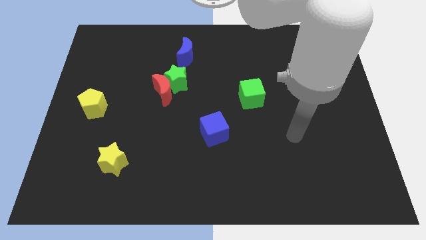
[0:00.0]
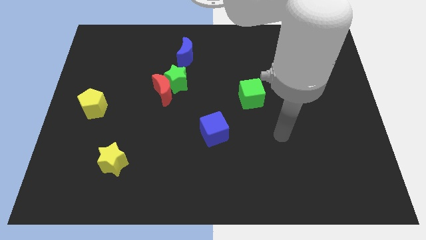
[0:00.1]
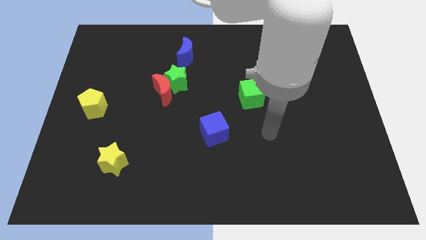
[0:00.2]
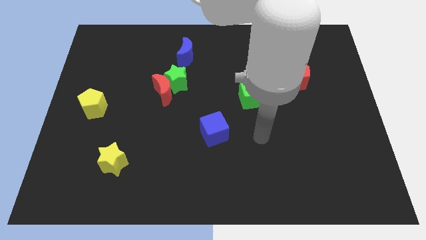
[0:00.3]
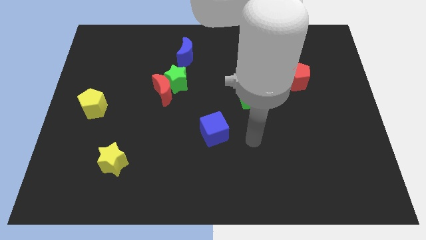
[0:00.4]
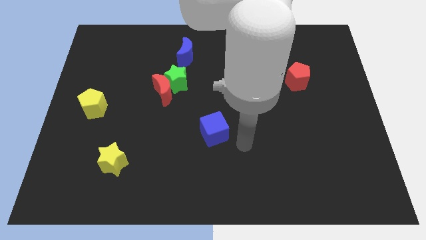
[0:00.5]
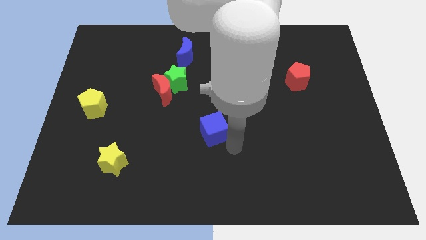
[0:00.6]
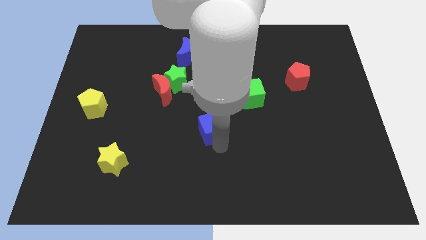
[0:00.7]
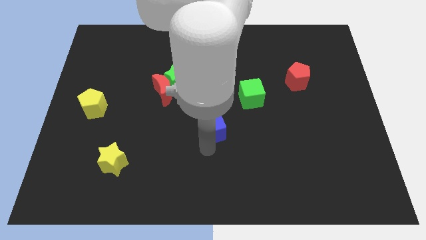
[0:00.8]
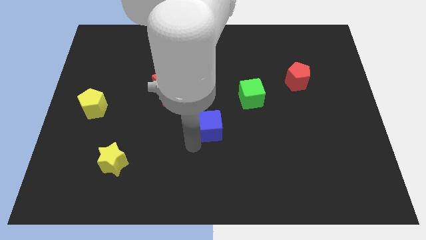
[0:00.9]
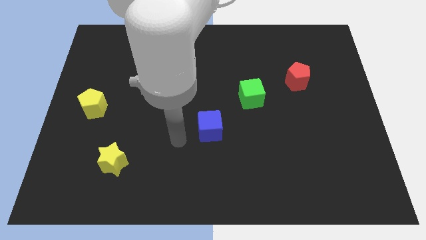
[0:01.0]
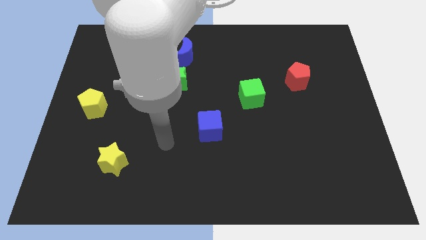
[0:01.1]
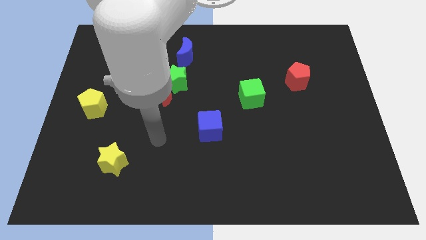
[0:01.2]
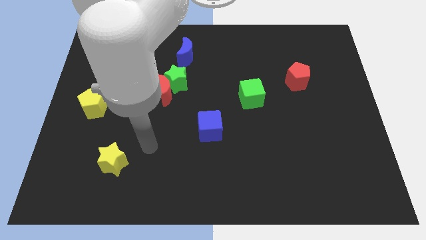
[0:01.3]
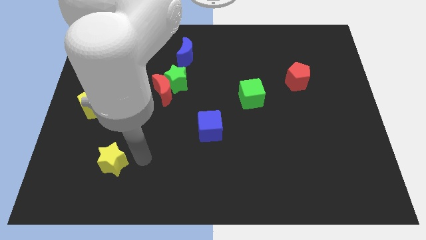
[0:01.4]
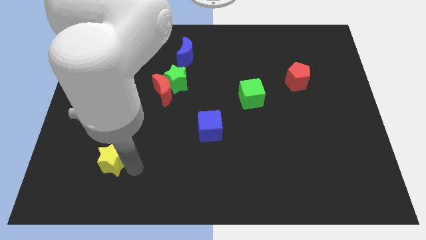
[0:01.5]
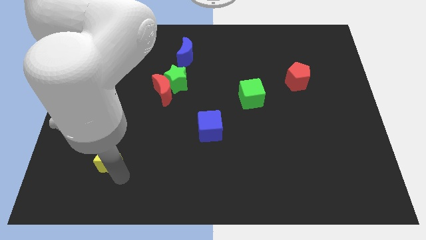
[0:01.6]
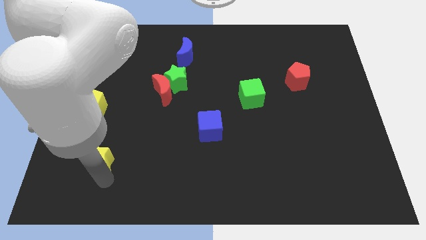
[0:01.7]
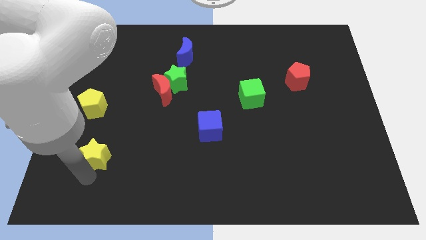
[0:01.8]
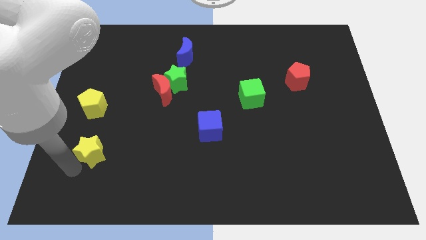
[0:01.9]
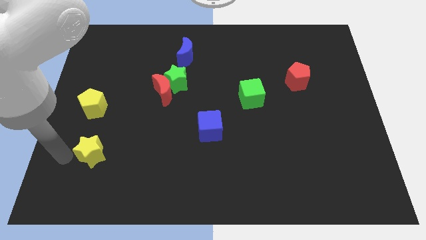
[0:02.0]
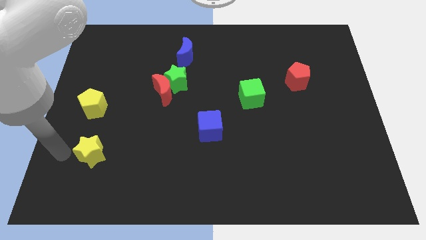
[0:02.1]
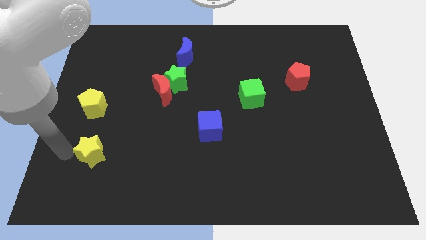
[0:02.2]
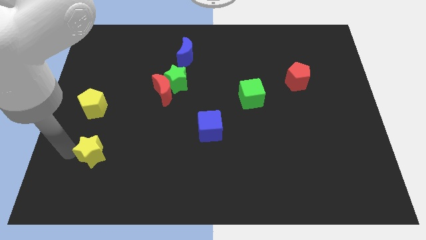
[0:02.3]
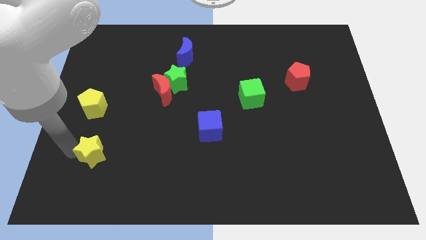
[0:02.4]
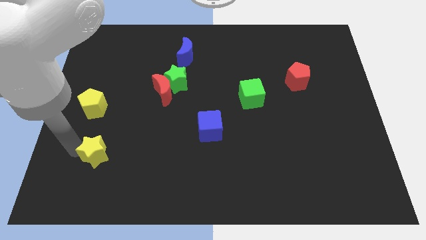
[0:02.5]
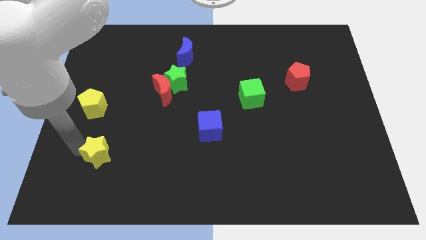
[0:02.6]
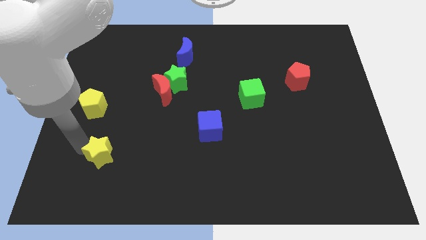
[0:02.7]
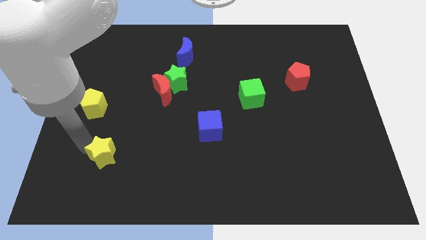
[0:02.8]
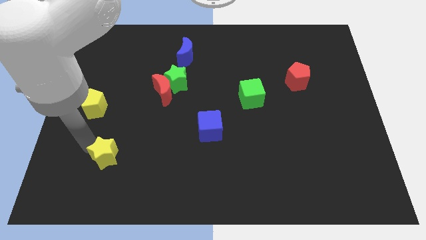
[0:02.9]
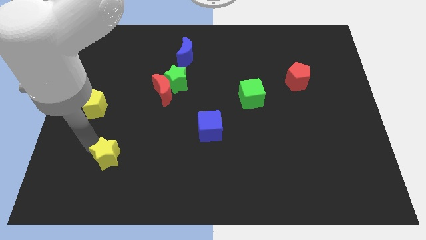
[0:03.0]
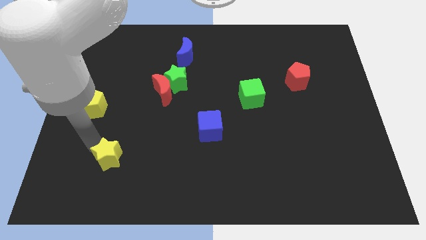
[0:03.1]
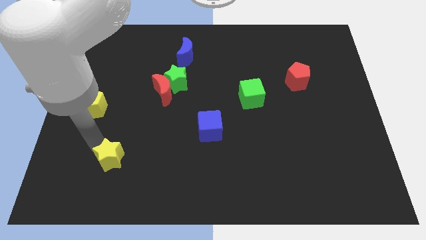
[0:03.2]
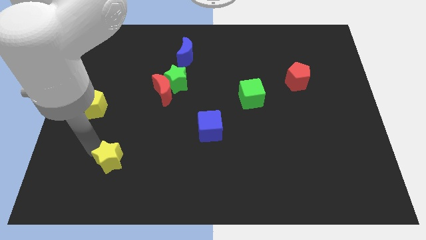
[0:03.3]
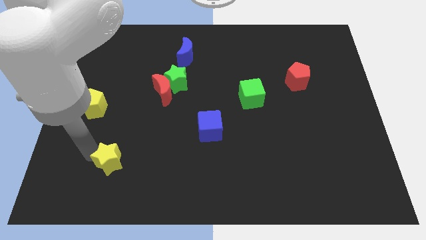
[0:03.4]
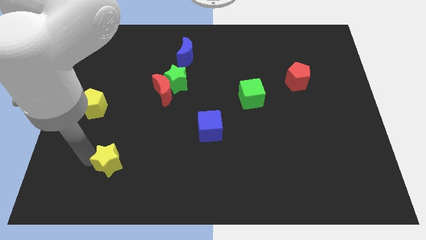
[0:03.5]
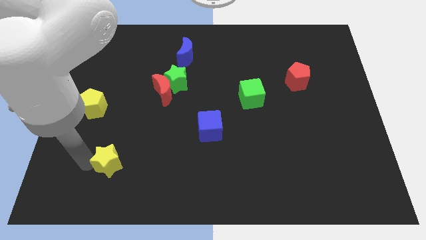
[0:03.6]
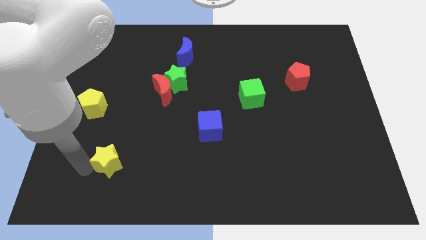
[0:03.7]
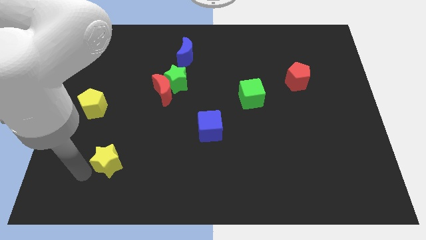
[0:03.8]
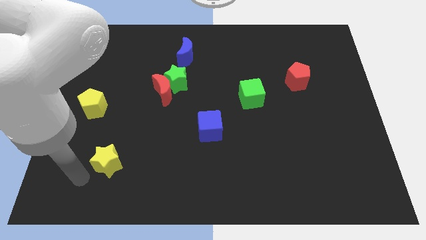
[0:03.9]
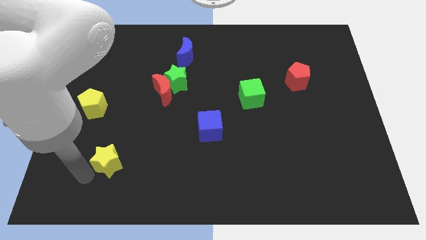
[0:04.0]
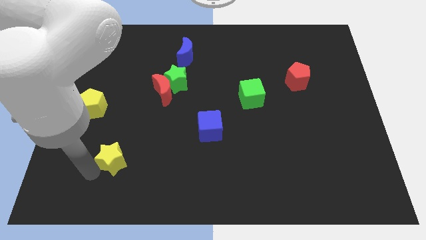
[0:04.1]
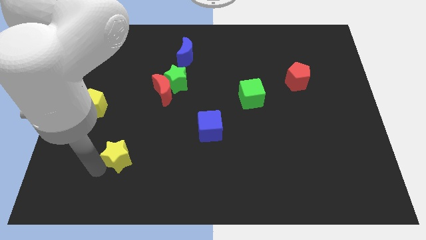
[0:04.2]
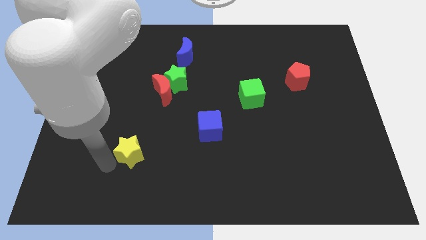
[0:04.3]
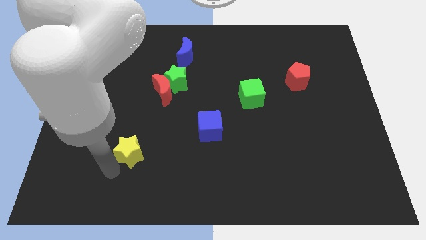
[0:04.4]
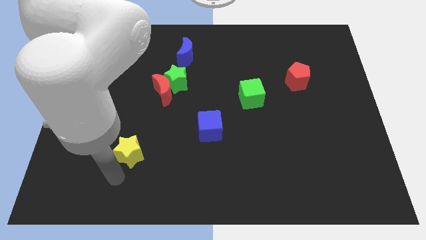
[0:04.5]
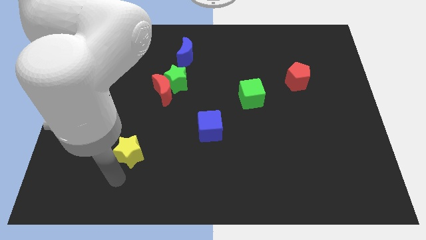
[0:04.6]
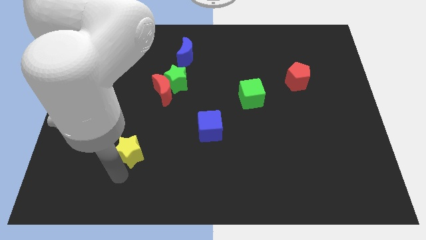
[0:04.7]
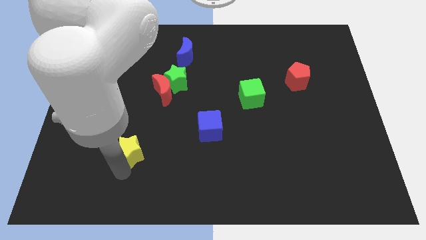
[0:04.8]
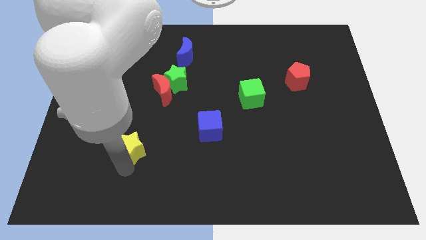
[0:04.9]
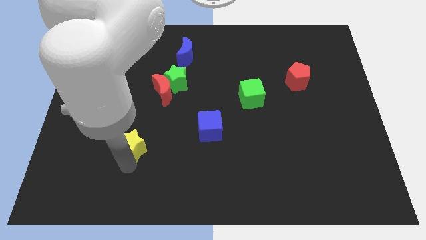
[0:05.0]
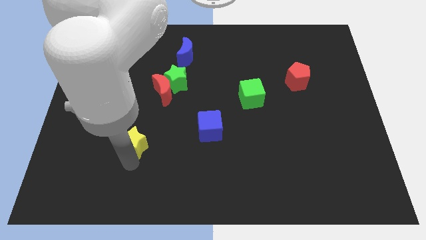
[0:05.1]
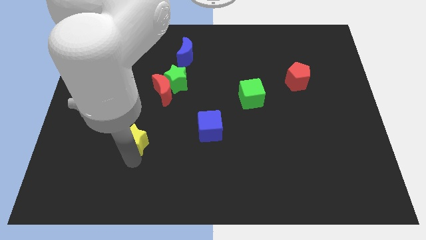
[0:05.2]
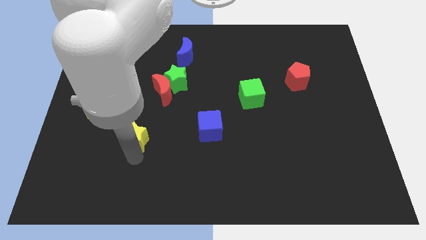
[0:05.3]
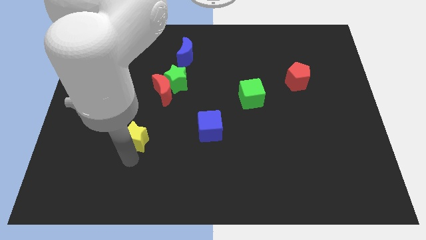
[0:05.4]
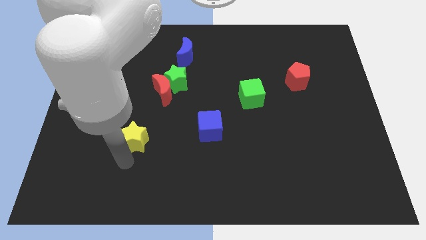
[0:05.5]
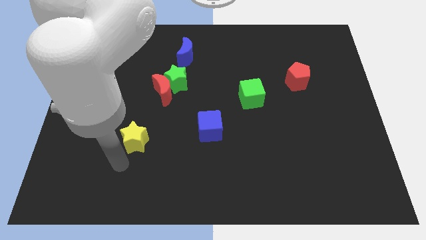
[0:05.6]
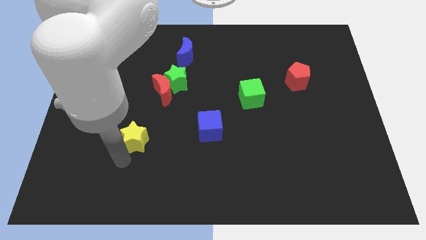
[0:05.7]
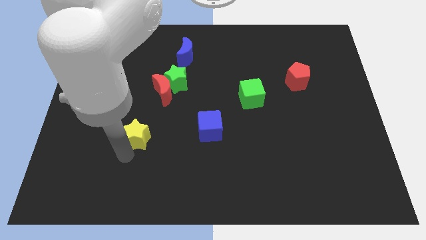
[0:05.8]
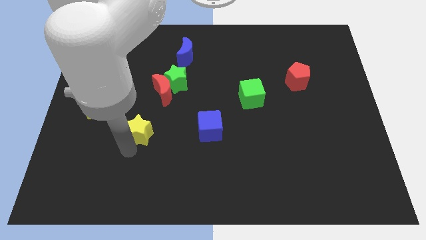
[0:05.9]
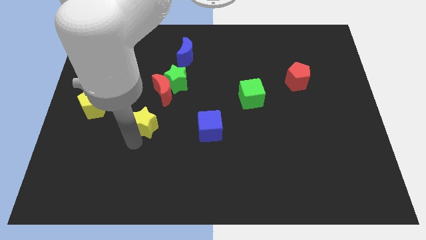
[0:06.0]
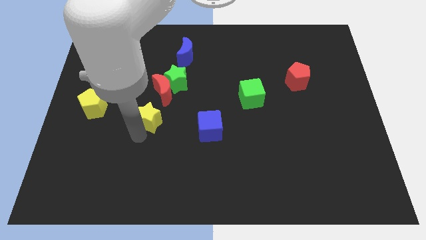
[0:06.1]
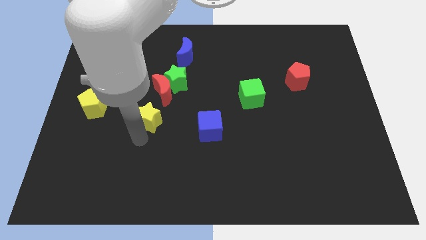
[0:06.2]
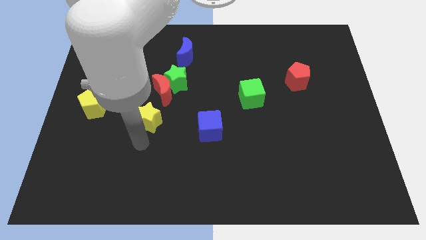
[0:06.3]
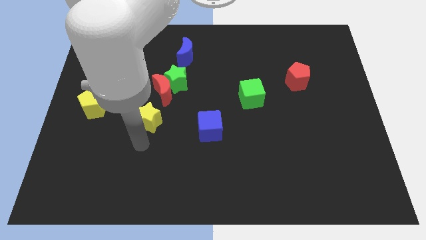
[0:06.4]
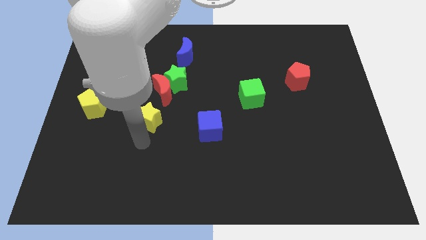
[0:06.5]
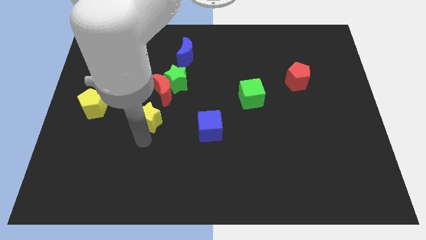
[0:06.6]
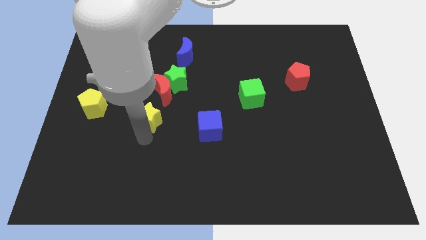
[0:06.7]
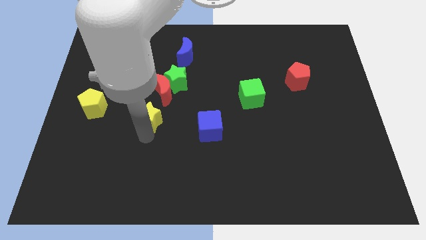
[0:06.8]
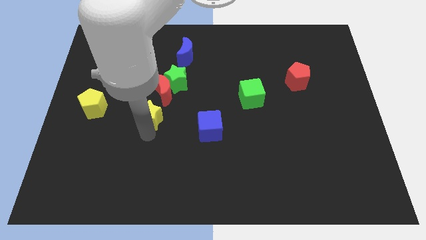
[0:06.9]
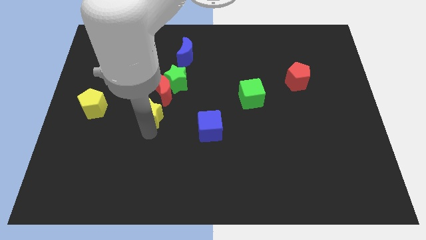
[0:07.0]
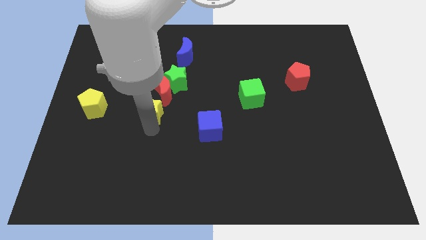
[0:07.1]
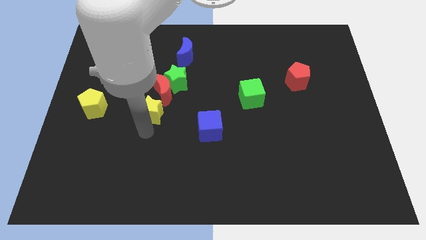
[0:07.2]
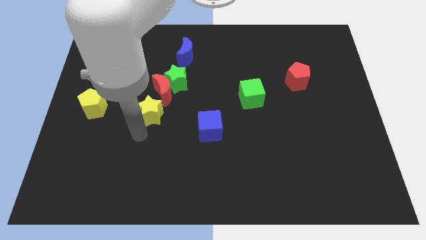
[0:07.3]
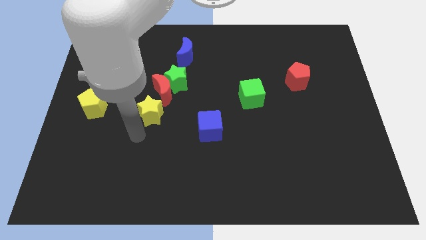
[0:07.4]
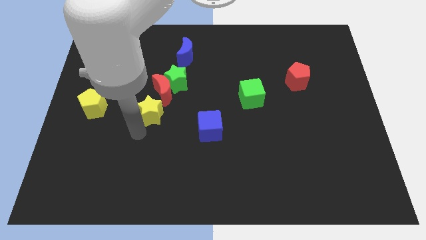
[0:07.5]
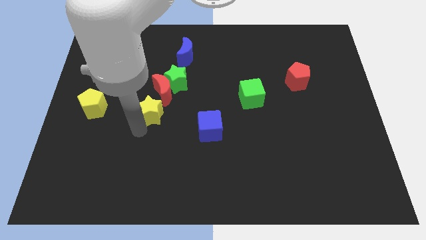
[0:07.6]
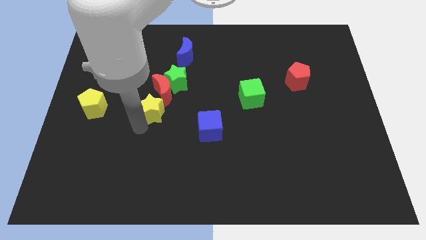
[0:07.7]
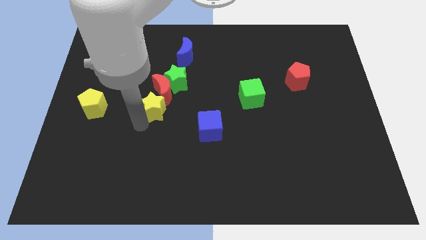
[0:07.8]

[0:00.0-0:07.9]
move the yellow star towards the red moon
